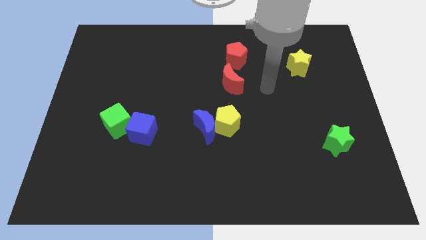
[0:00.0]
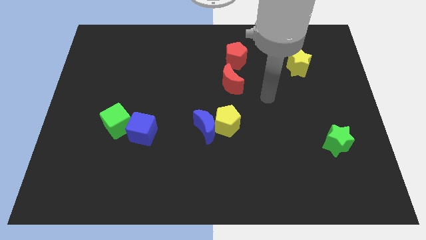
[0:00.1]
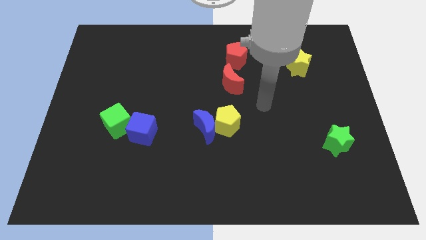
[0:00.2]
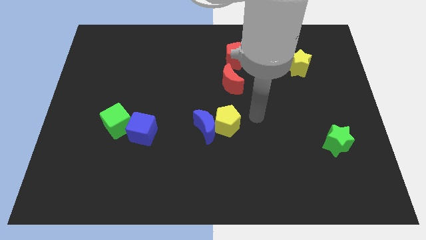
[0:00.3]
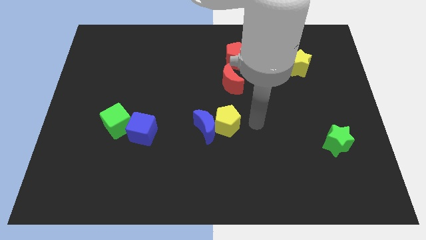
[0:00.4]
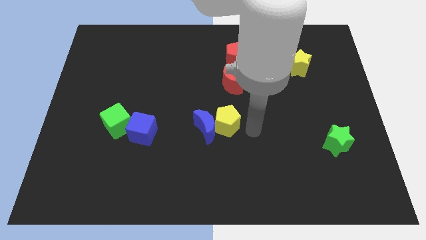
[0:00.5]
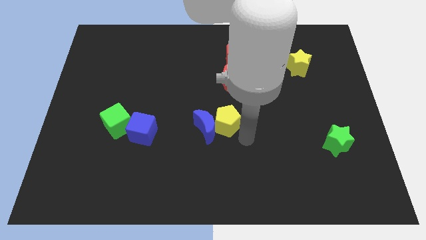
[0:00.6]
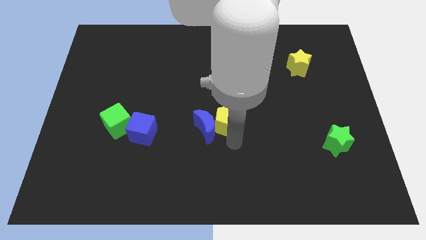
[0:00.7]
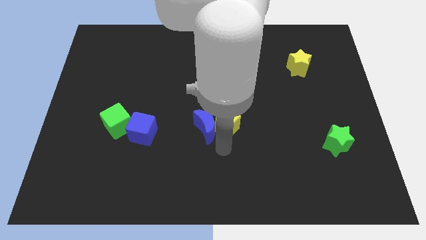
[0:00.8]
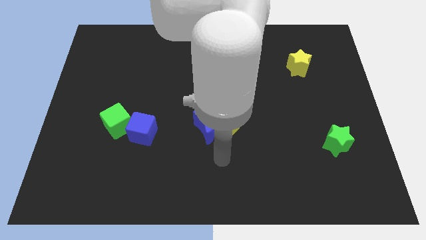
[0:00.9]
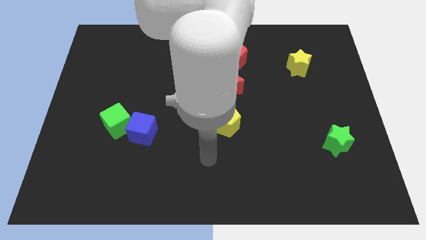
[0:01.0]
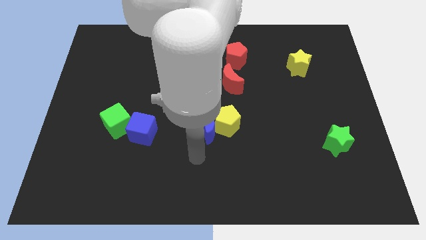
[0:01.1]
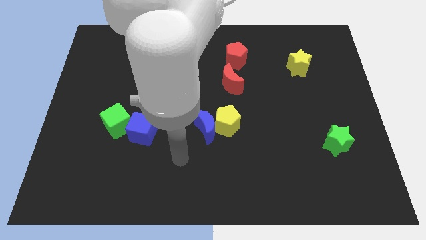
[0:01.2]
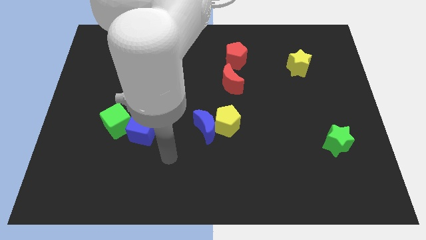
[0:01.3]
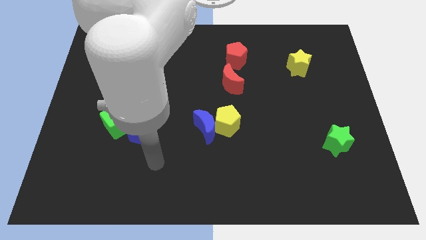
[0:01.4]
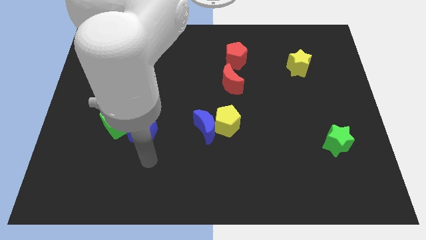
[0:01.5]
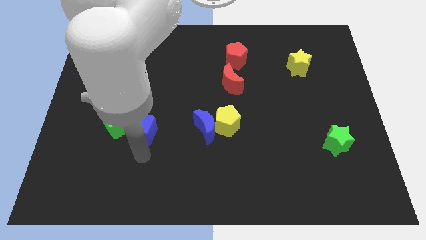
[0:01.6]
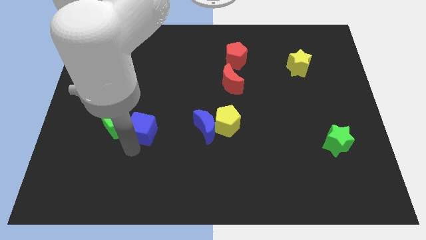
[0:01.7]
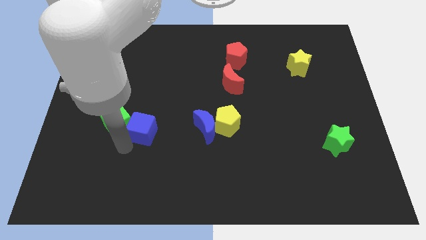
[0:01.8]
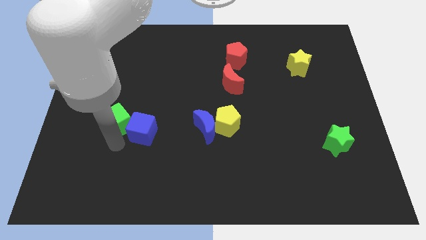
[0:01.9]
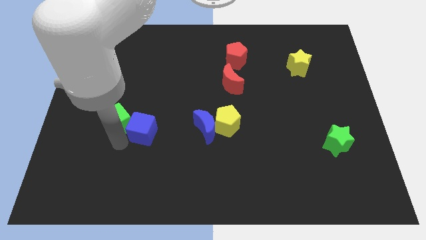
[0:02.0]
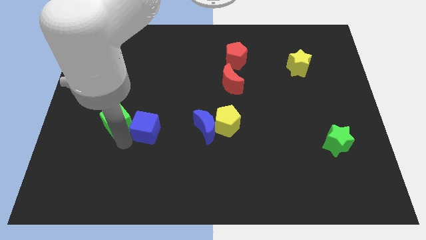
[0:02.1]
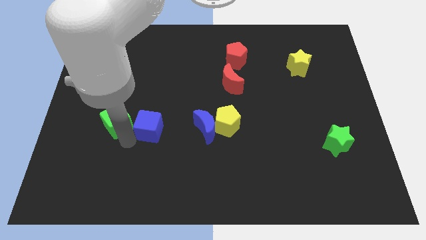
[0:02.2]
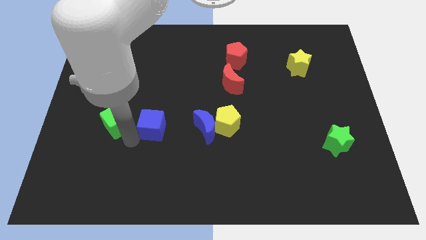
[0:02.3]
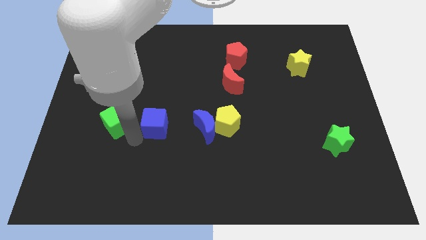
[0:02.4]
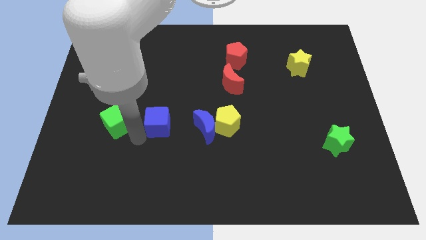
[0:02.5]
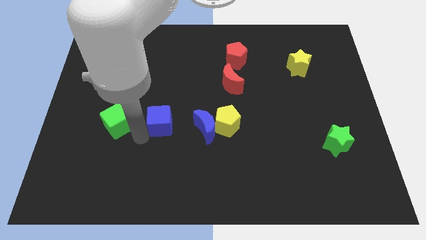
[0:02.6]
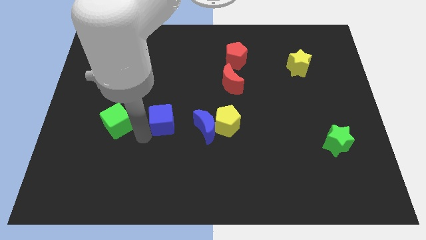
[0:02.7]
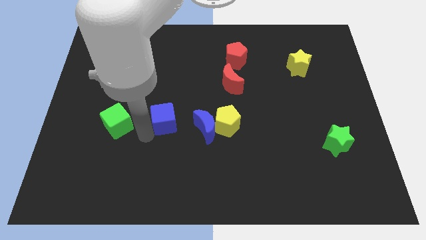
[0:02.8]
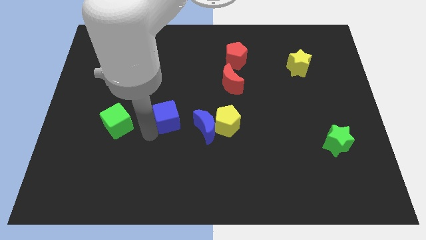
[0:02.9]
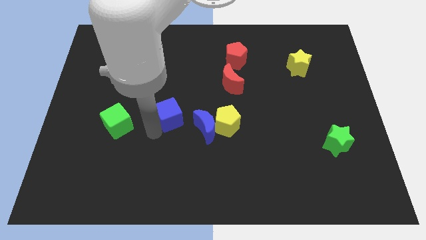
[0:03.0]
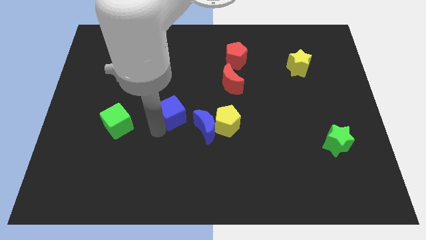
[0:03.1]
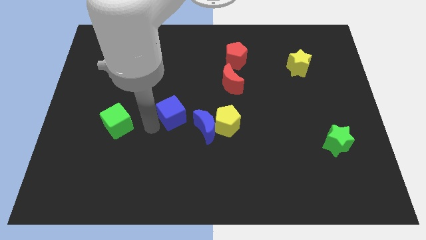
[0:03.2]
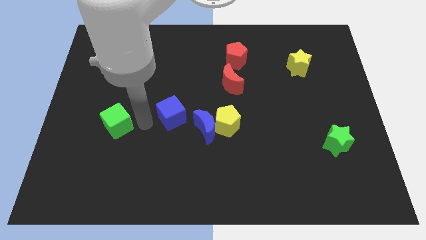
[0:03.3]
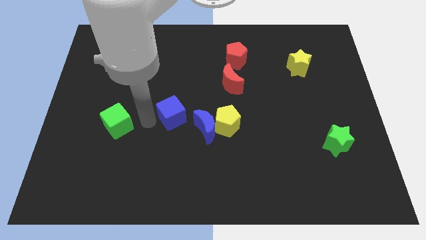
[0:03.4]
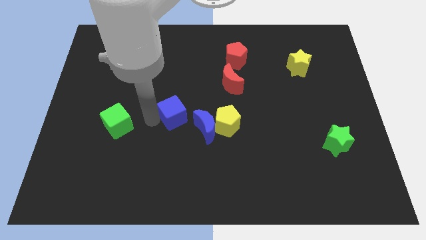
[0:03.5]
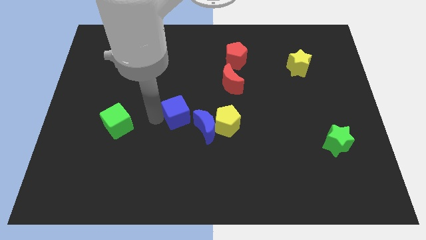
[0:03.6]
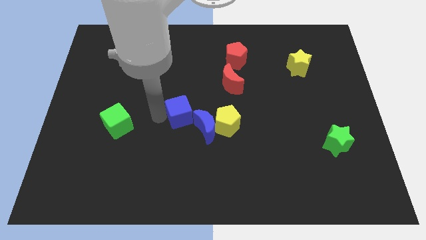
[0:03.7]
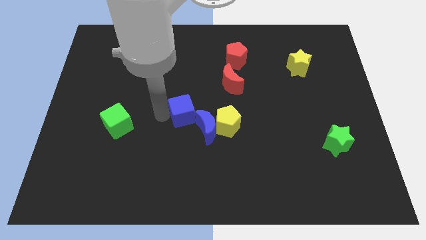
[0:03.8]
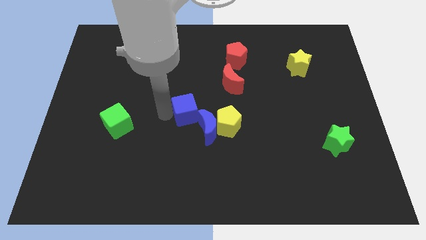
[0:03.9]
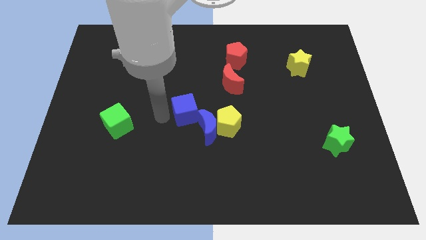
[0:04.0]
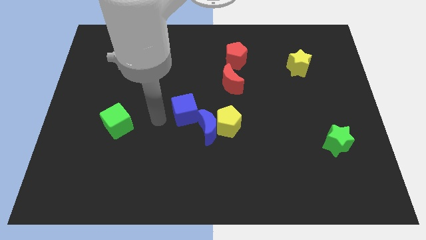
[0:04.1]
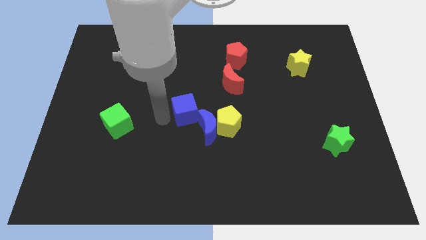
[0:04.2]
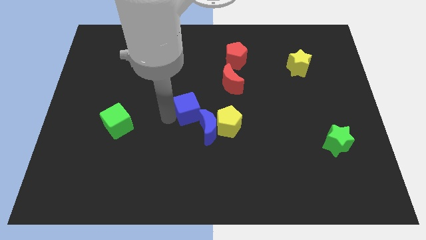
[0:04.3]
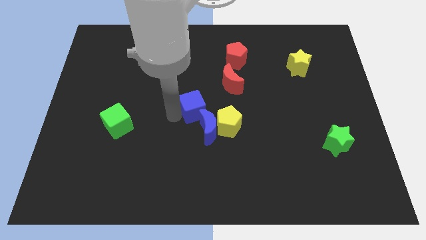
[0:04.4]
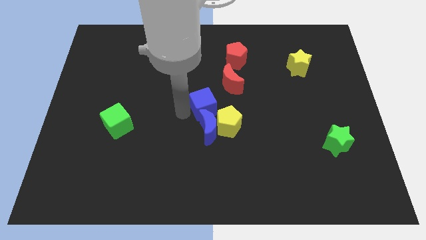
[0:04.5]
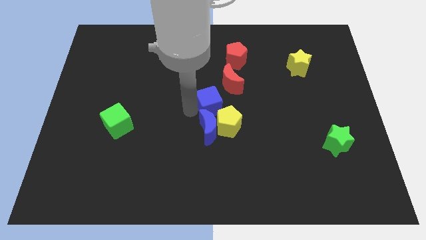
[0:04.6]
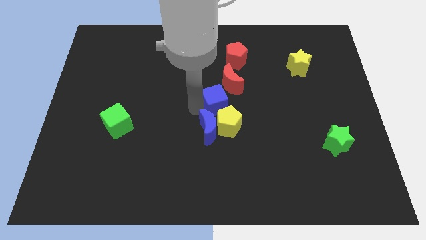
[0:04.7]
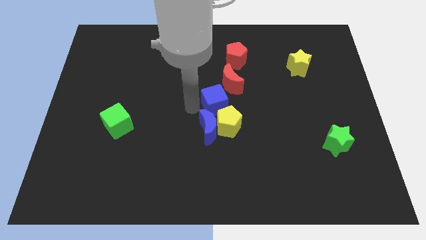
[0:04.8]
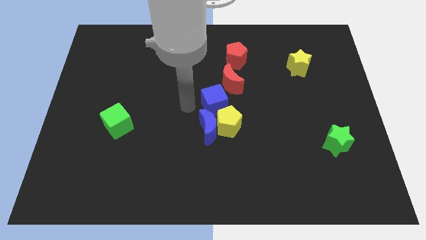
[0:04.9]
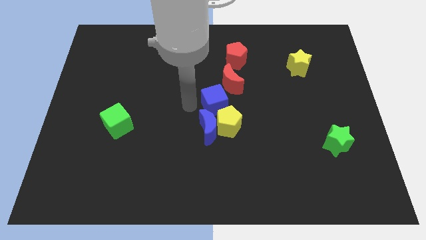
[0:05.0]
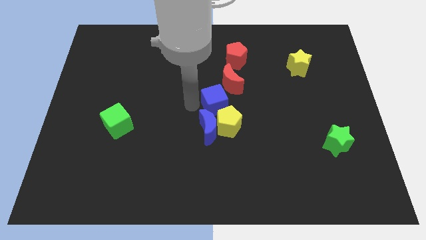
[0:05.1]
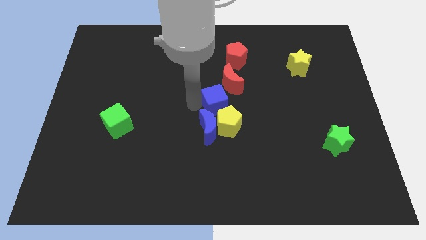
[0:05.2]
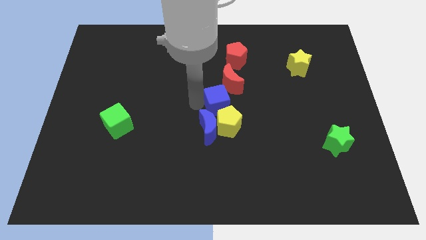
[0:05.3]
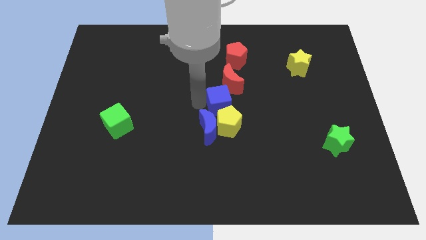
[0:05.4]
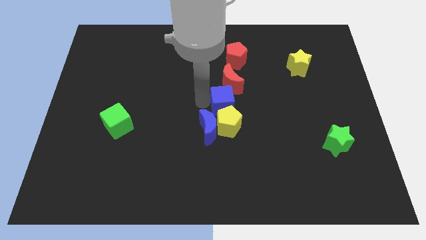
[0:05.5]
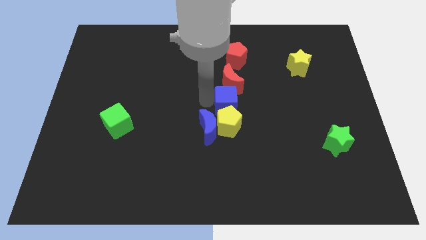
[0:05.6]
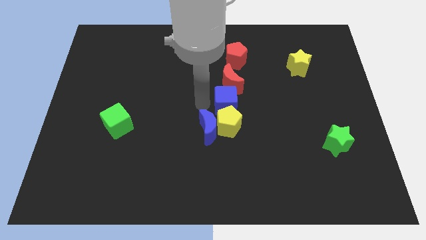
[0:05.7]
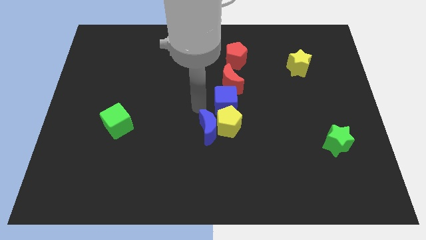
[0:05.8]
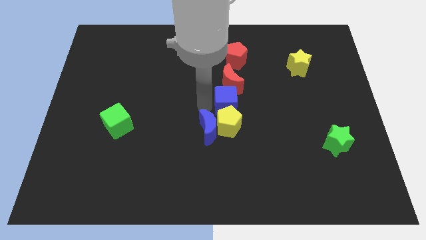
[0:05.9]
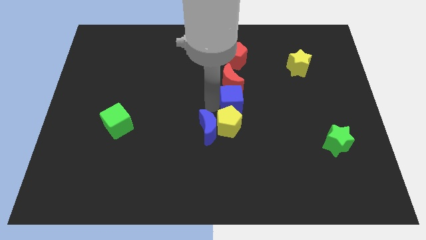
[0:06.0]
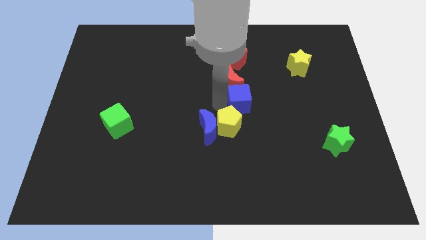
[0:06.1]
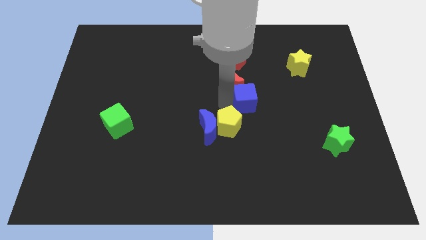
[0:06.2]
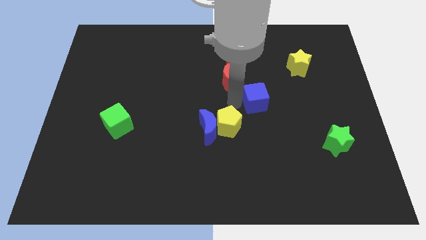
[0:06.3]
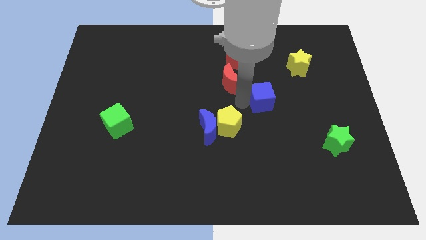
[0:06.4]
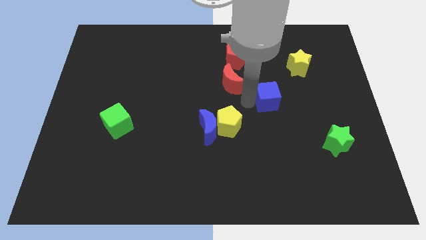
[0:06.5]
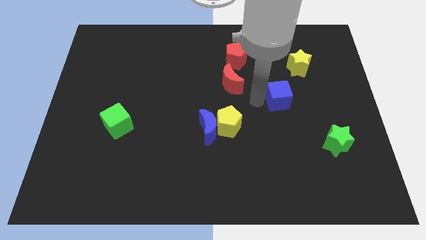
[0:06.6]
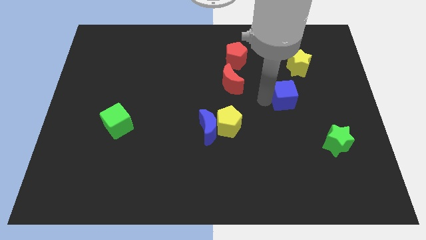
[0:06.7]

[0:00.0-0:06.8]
put the blue cube to the bottom side of the yellow star
